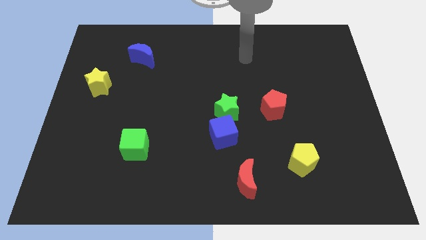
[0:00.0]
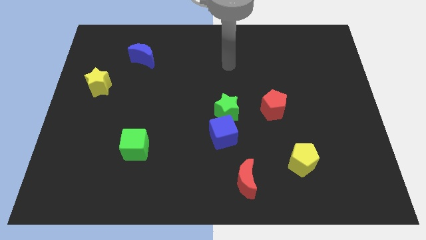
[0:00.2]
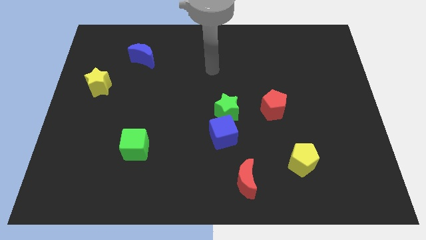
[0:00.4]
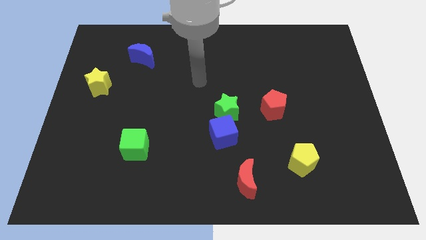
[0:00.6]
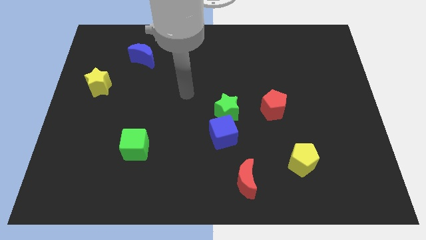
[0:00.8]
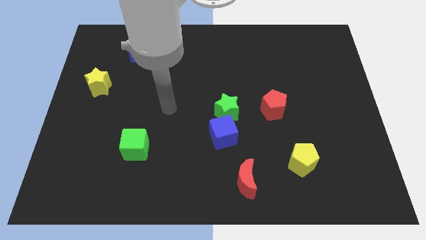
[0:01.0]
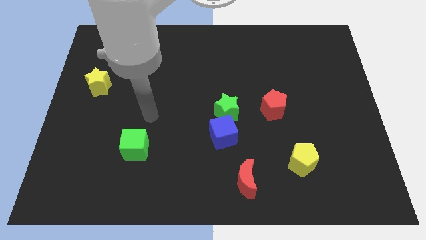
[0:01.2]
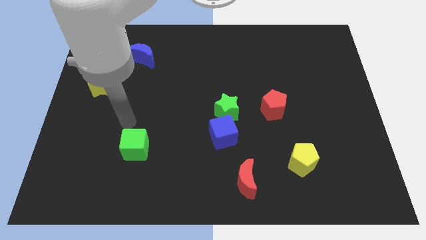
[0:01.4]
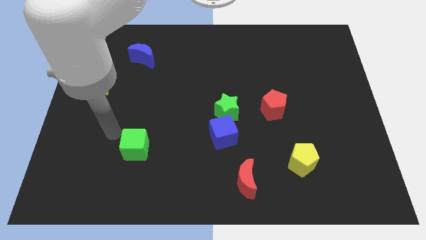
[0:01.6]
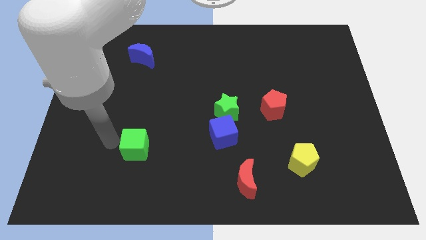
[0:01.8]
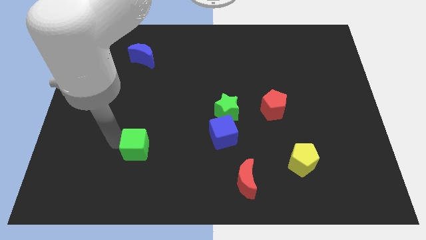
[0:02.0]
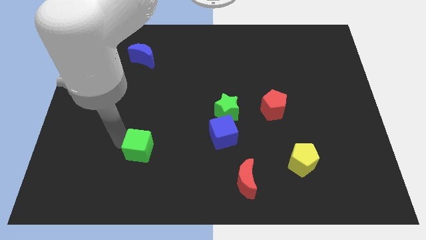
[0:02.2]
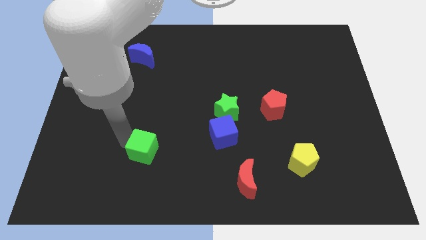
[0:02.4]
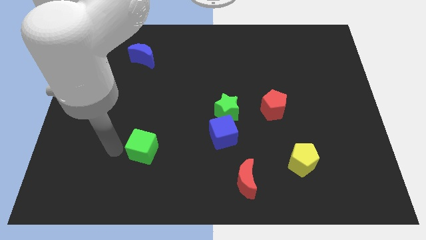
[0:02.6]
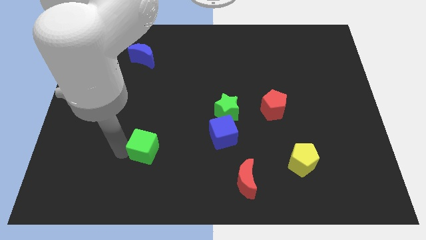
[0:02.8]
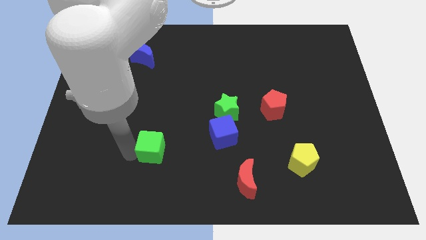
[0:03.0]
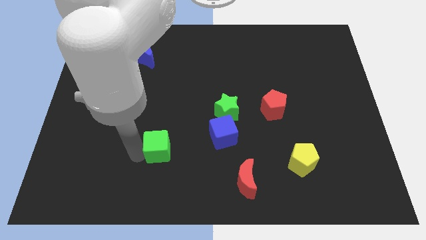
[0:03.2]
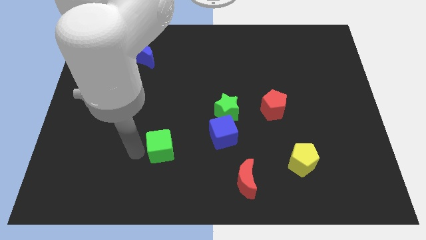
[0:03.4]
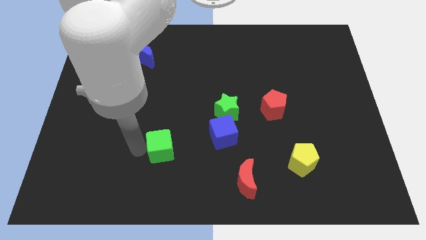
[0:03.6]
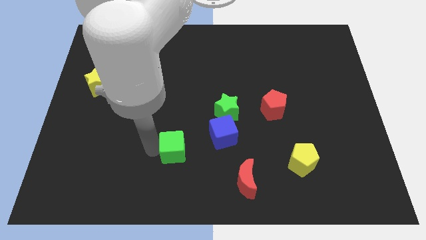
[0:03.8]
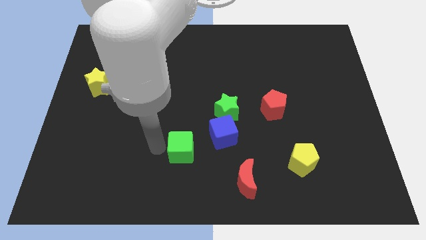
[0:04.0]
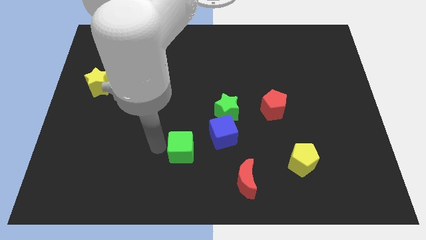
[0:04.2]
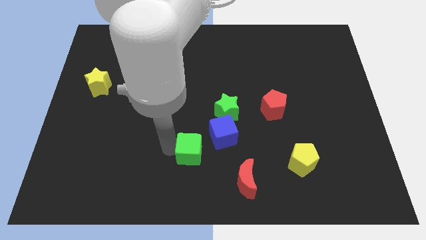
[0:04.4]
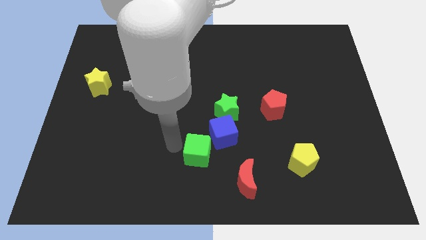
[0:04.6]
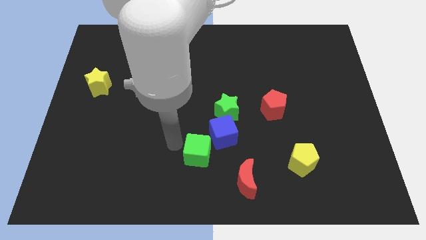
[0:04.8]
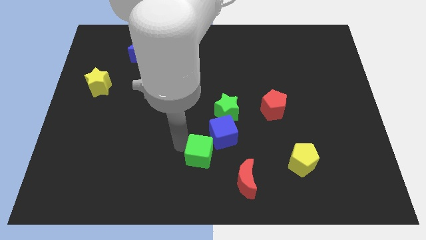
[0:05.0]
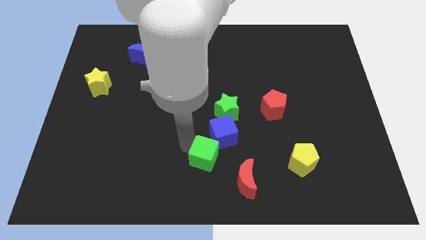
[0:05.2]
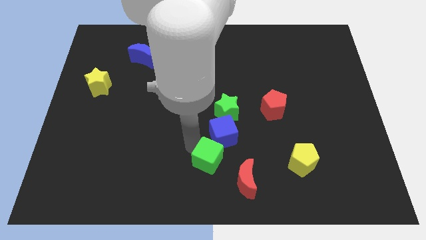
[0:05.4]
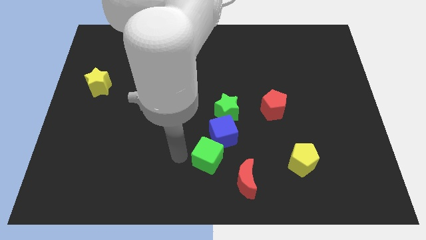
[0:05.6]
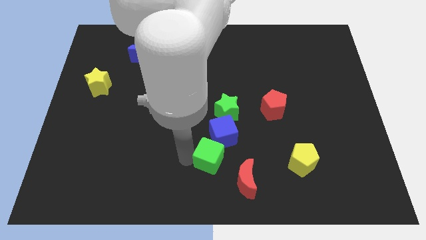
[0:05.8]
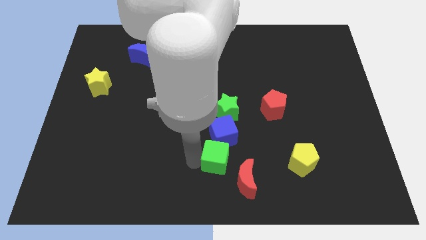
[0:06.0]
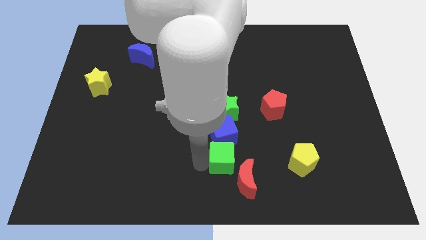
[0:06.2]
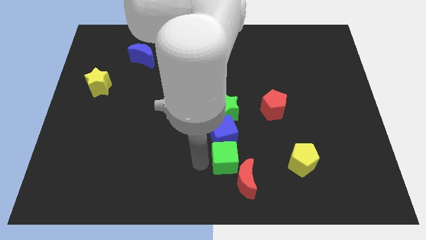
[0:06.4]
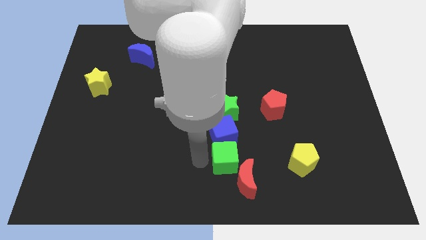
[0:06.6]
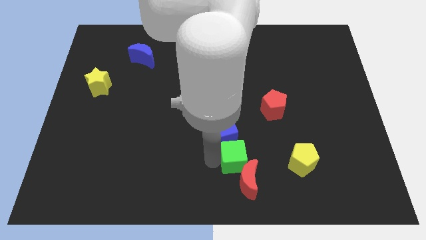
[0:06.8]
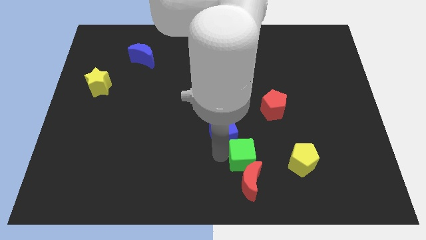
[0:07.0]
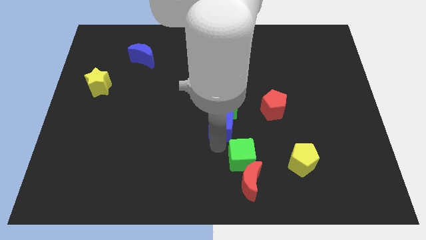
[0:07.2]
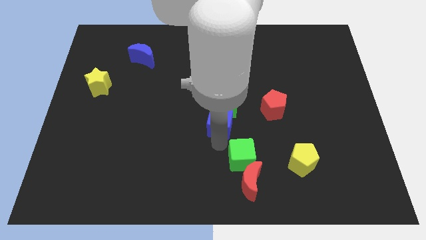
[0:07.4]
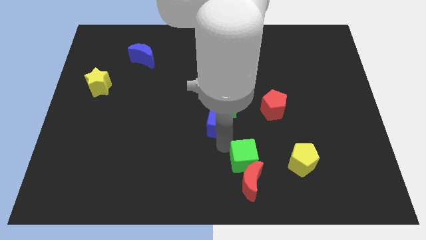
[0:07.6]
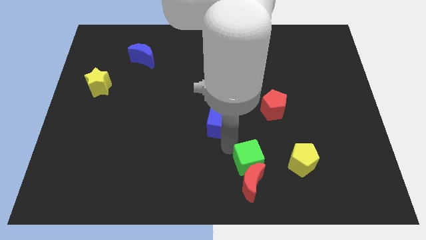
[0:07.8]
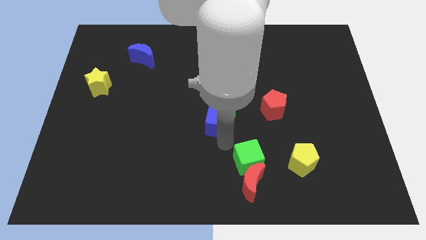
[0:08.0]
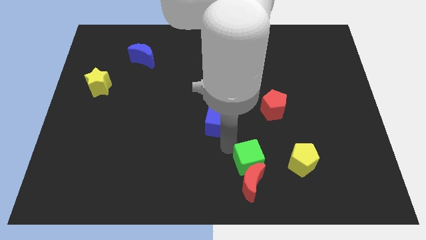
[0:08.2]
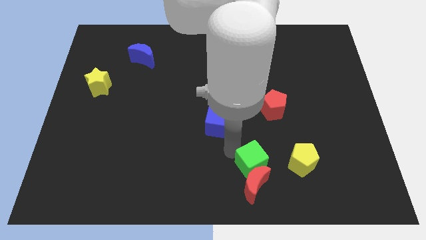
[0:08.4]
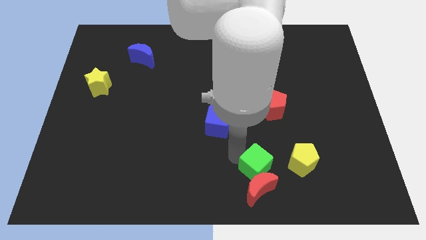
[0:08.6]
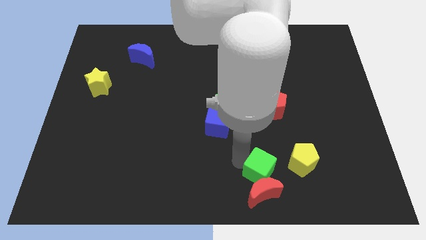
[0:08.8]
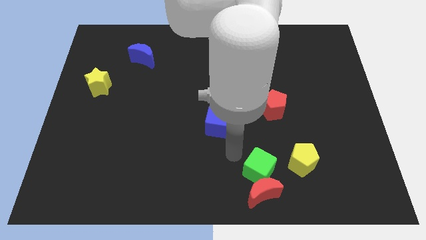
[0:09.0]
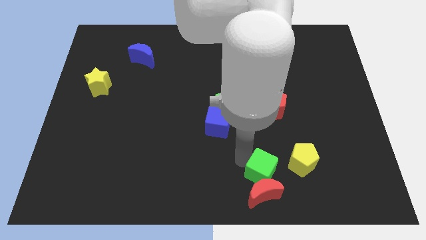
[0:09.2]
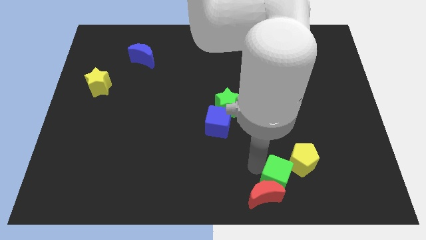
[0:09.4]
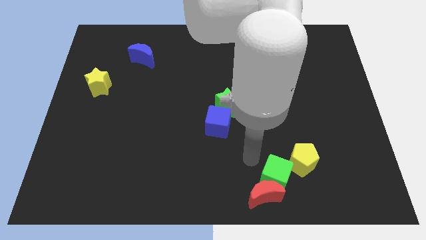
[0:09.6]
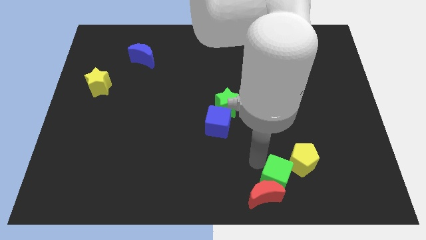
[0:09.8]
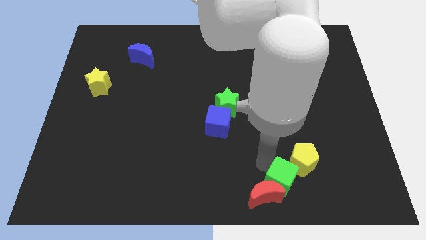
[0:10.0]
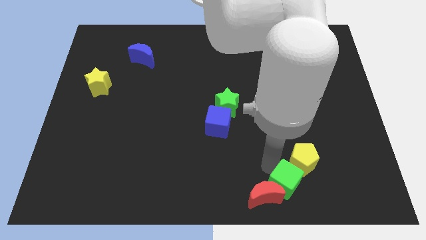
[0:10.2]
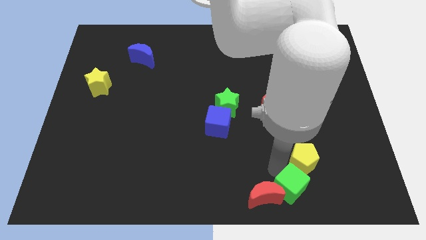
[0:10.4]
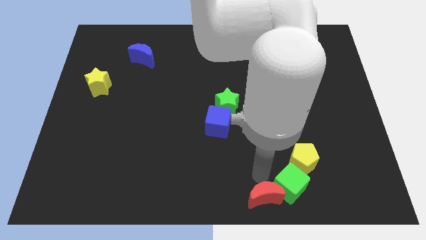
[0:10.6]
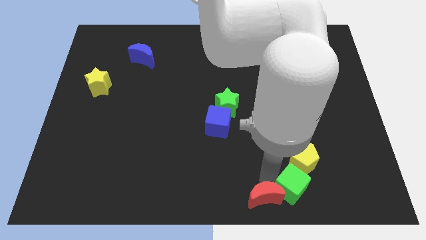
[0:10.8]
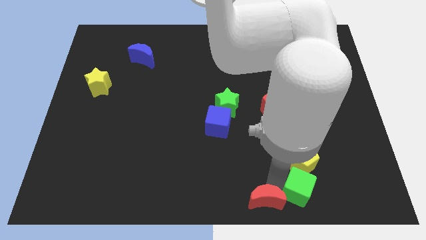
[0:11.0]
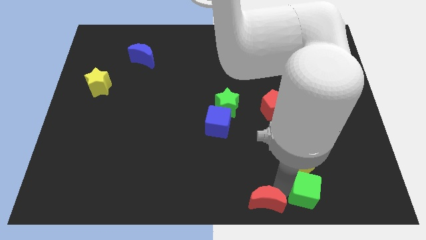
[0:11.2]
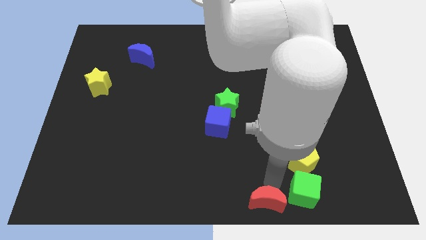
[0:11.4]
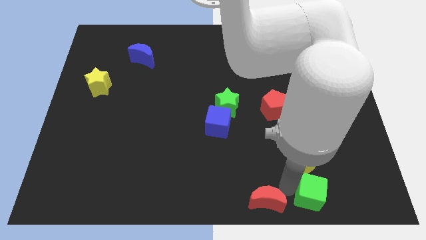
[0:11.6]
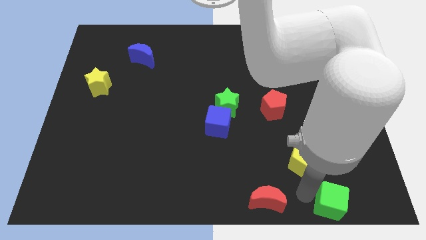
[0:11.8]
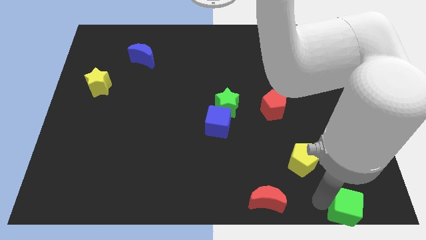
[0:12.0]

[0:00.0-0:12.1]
move the green cube to the bottom right corner
